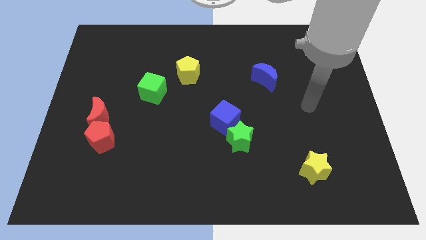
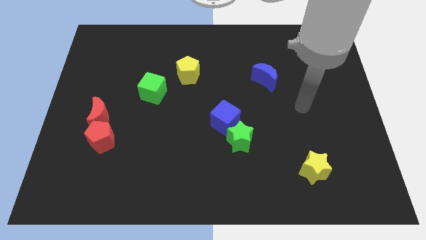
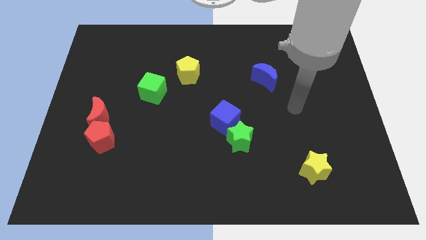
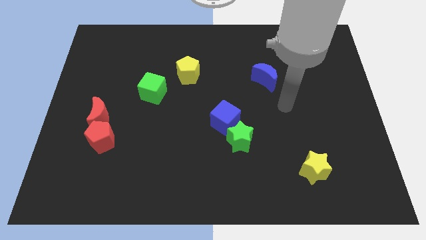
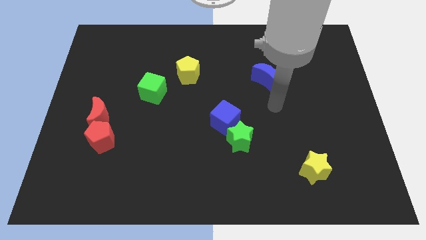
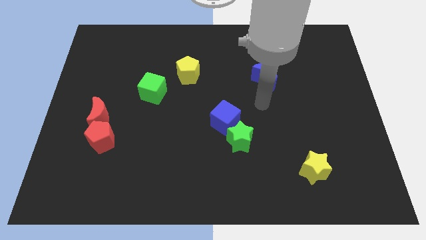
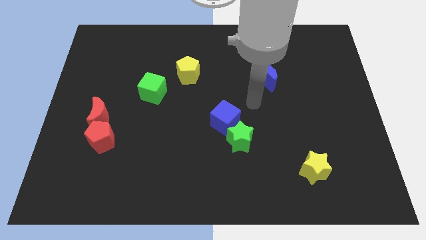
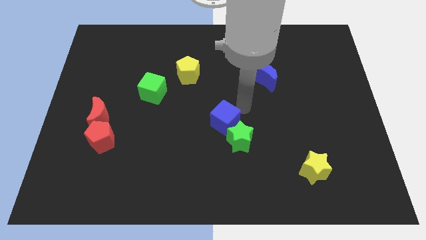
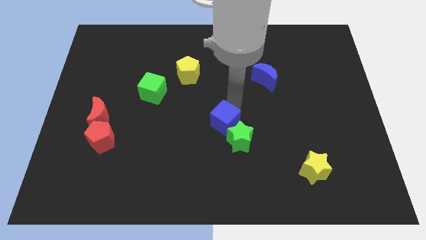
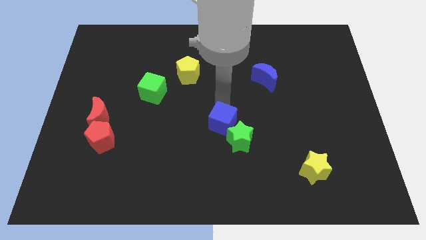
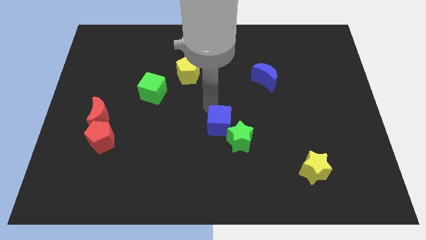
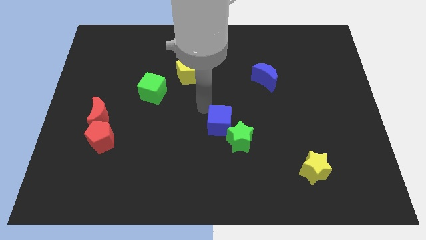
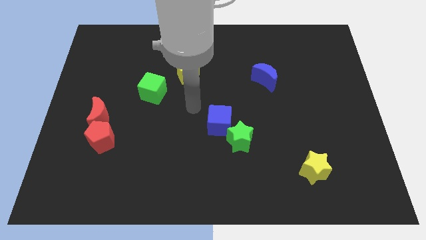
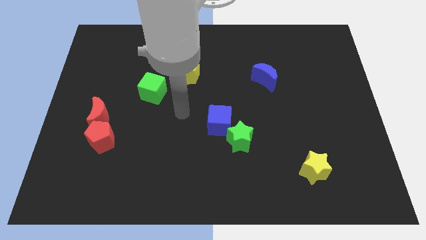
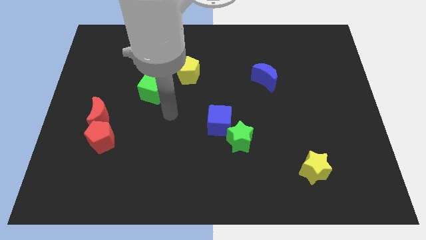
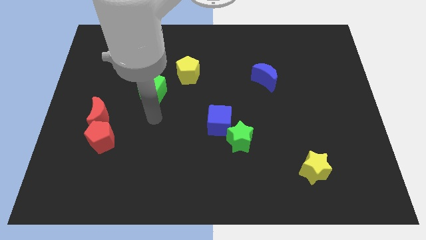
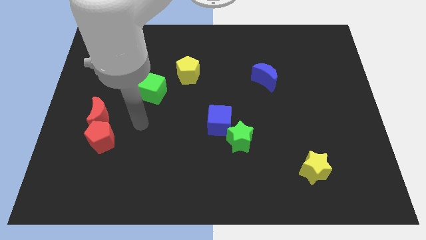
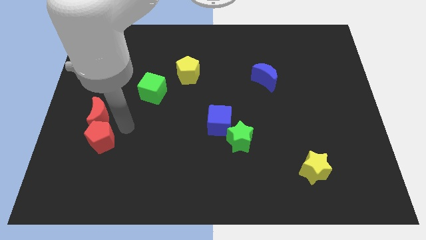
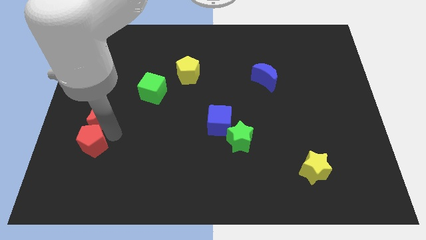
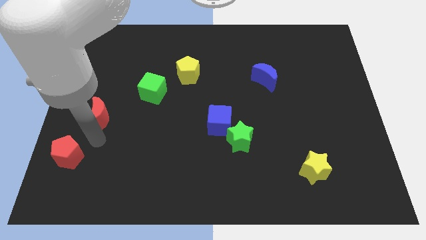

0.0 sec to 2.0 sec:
separate the red moon from the red pentagon

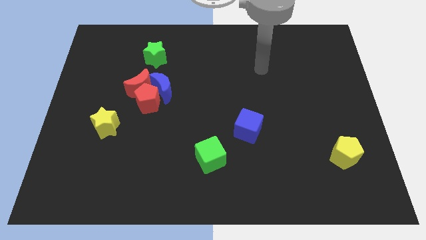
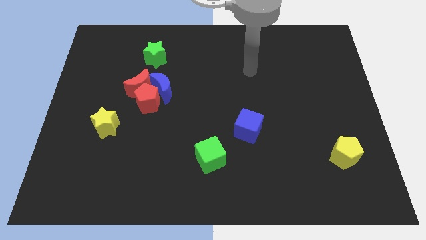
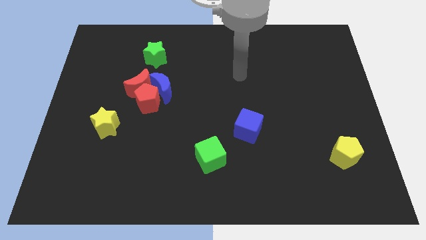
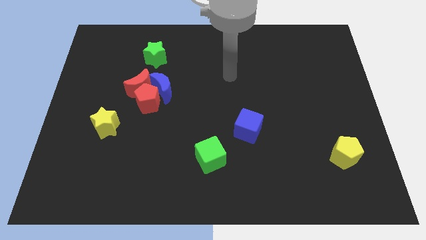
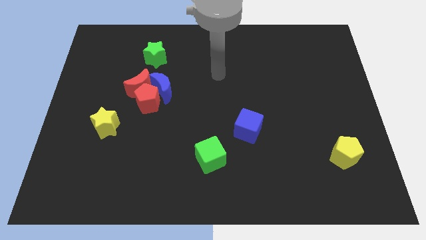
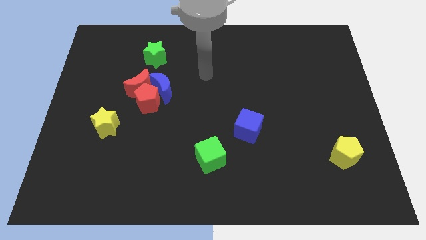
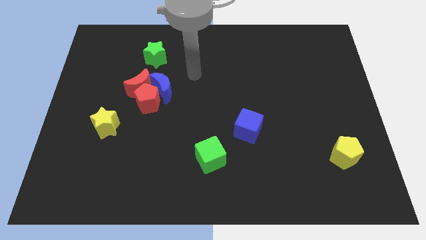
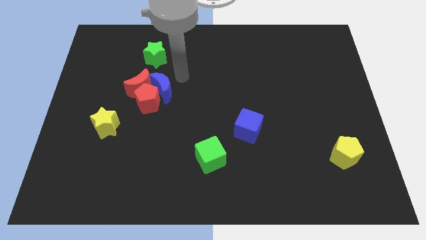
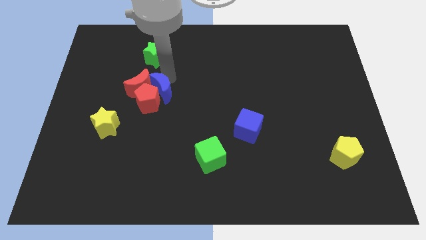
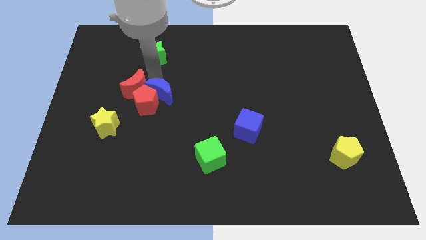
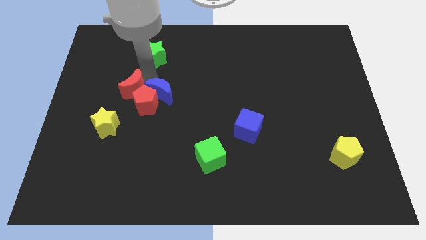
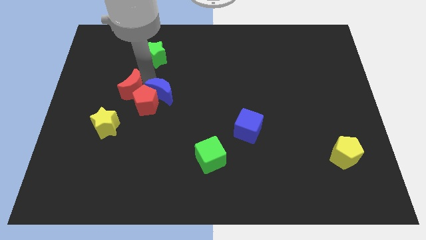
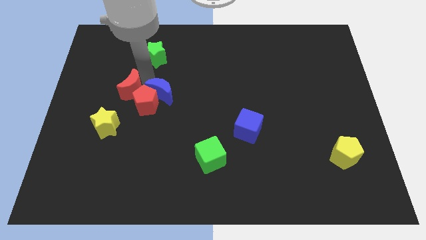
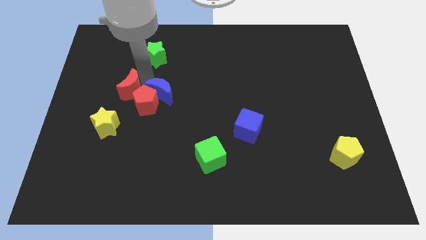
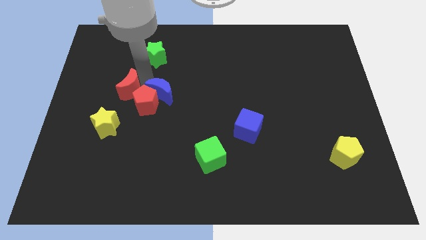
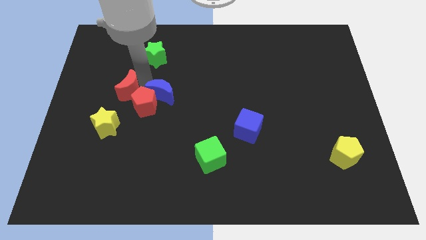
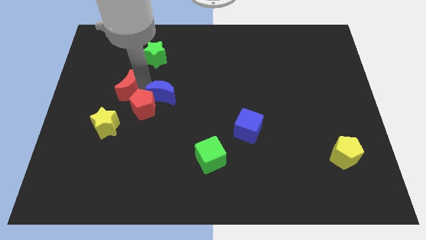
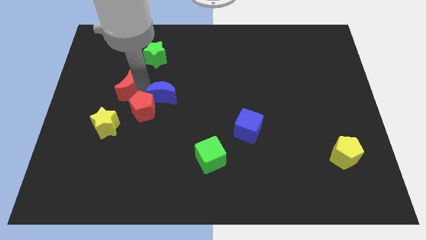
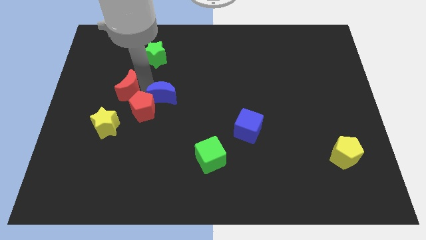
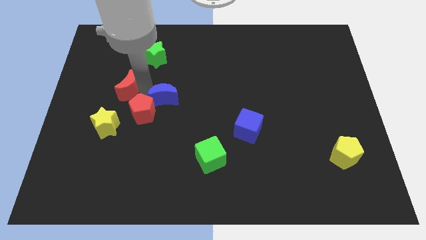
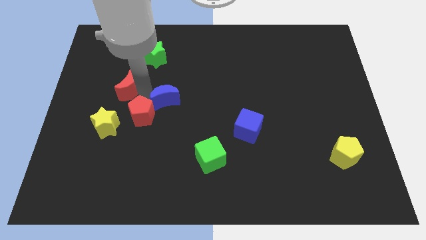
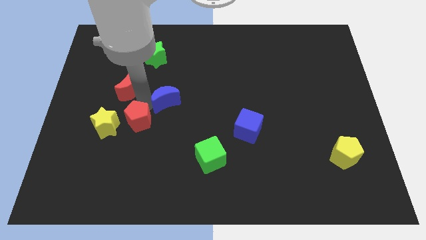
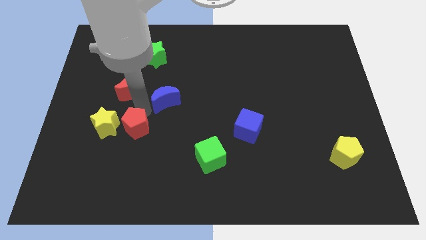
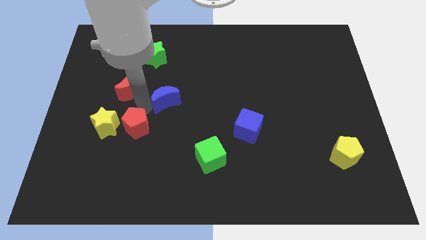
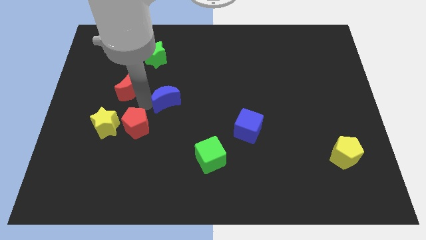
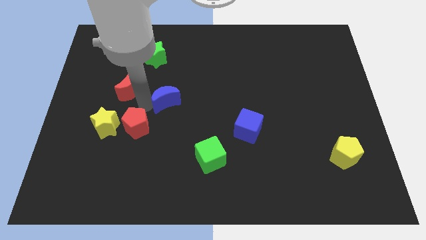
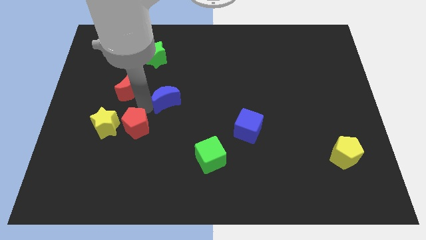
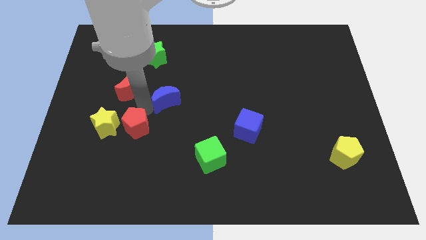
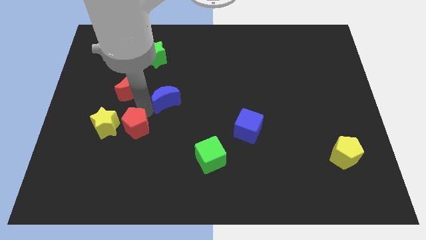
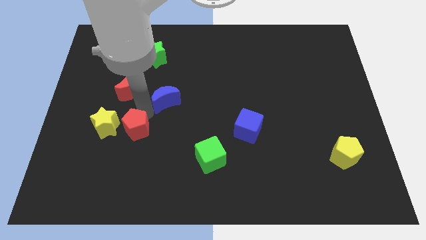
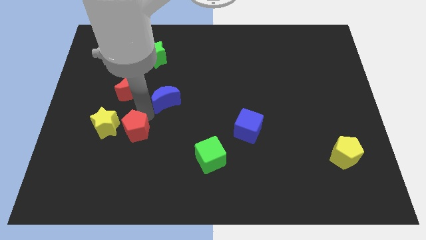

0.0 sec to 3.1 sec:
separate the red pentagon from the blue moon and red moon

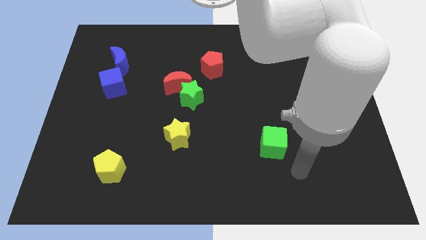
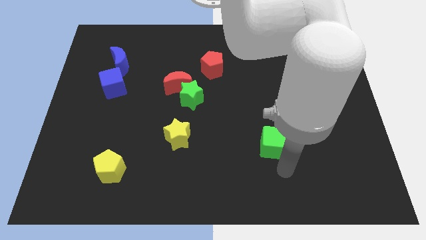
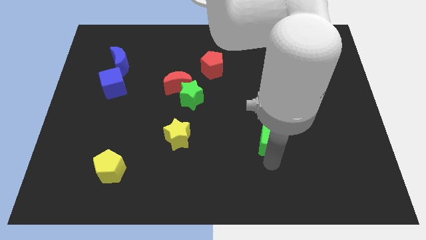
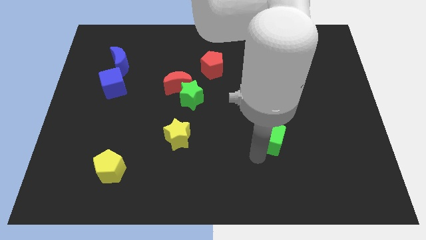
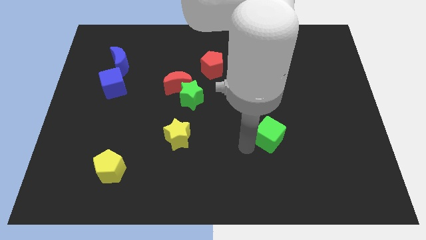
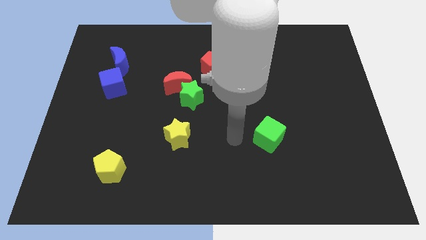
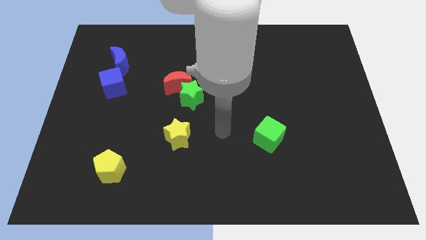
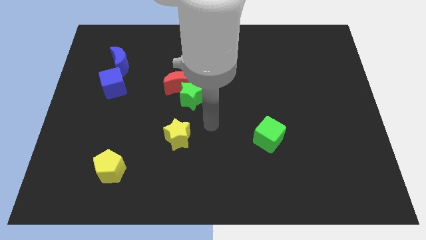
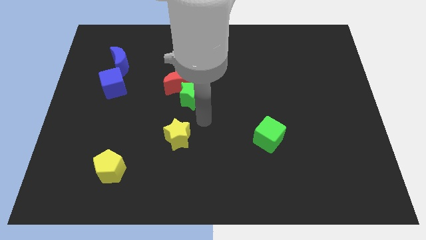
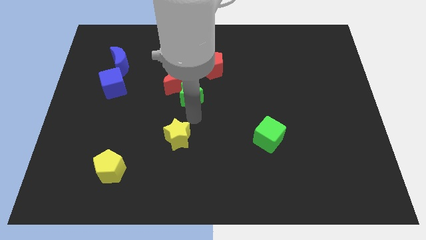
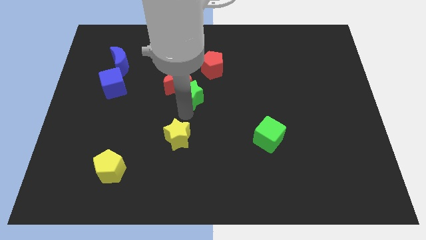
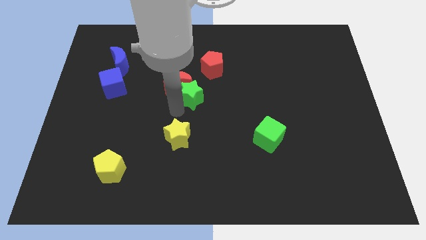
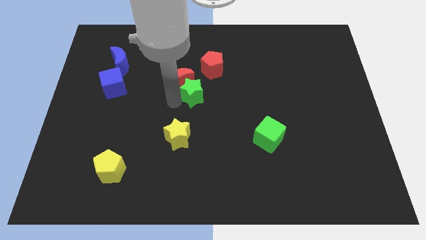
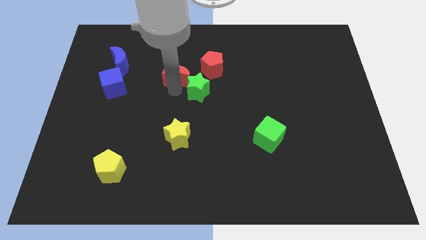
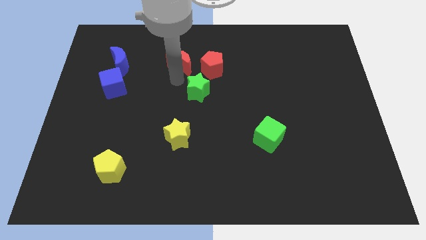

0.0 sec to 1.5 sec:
separate the green star from the red moon

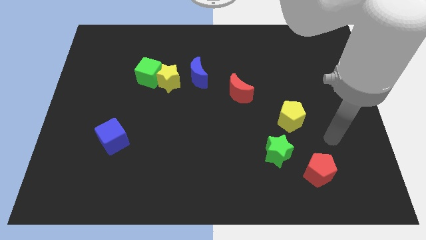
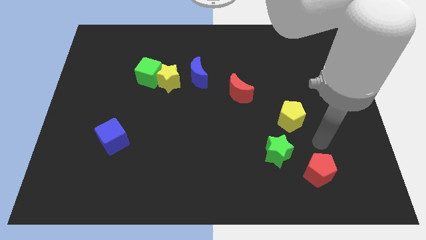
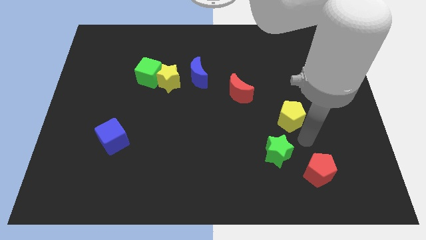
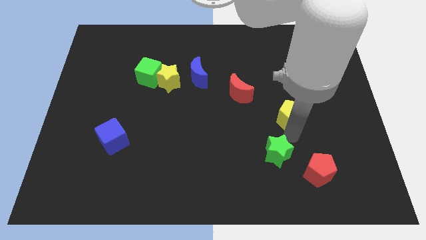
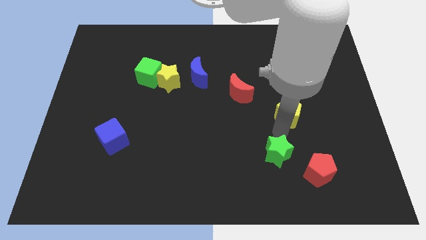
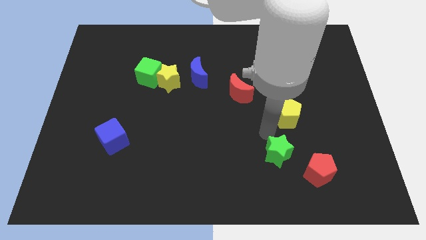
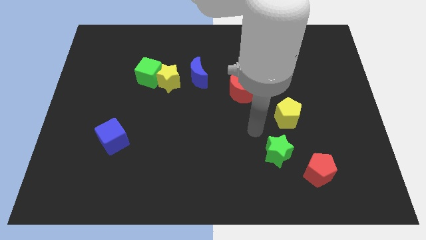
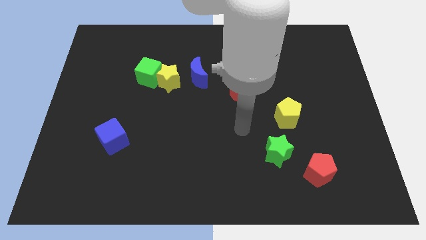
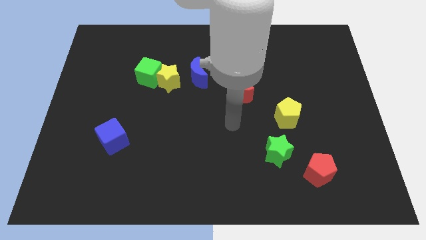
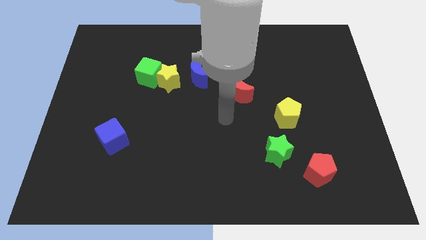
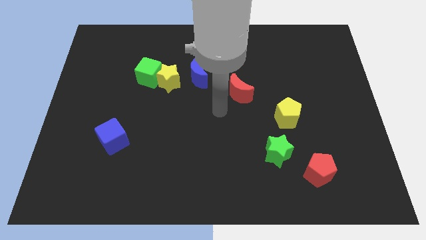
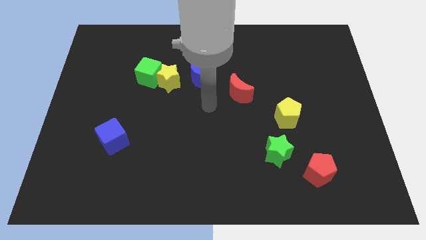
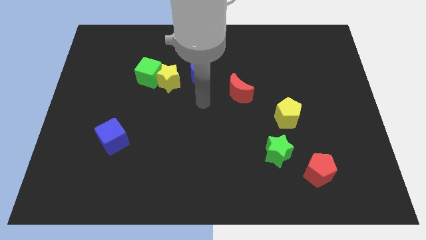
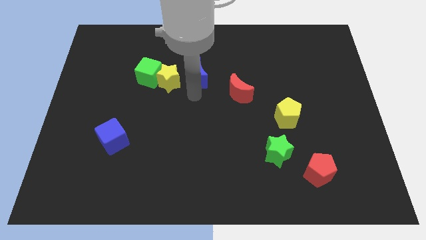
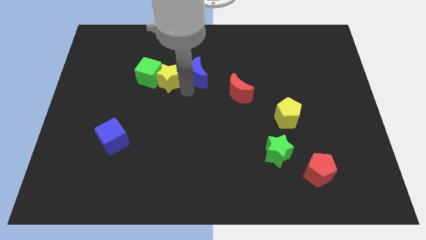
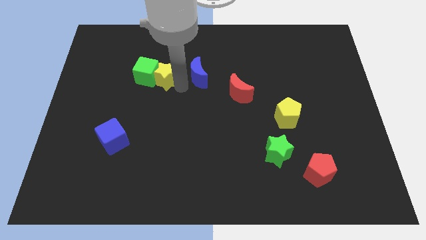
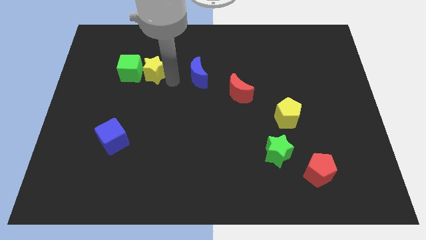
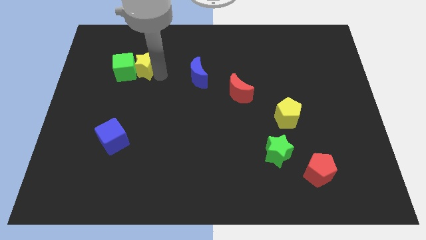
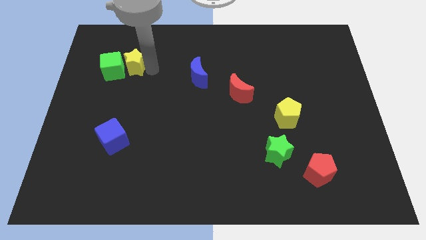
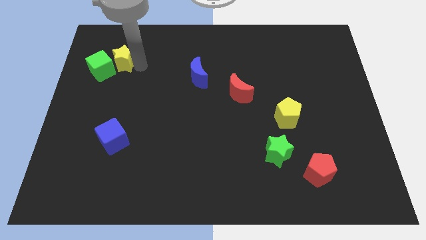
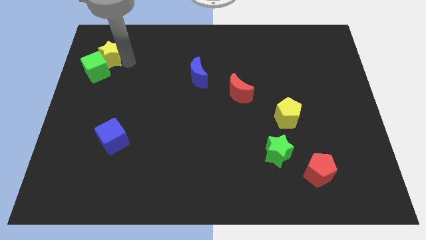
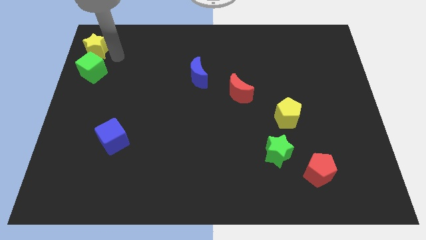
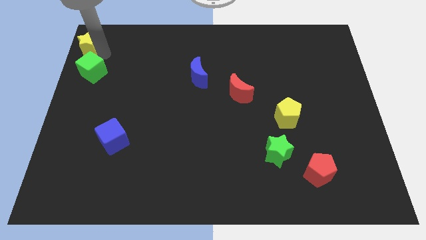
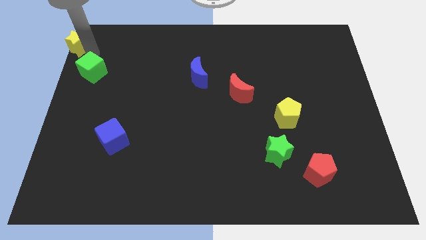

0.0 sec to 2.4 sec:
pull the green cube apart from the yellow star

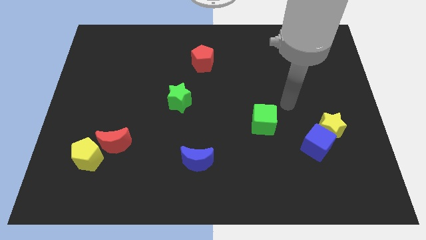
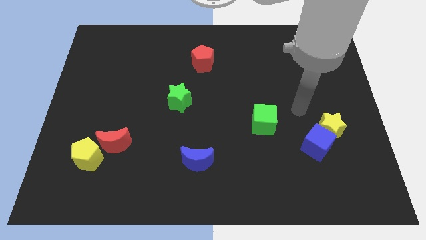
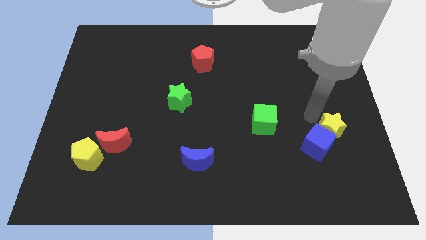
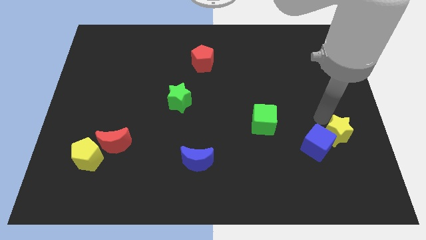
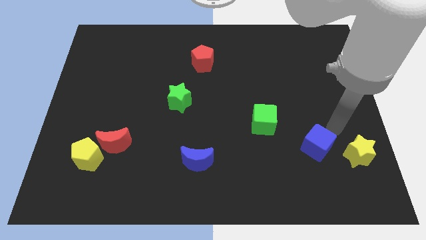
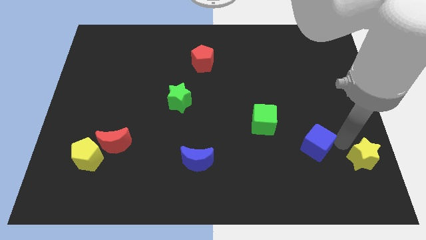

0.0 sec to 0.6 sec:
move the blue cube away from the yellow star
